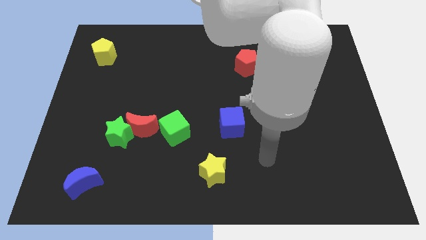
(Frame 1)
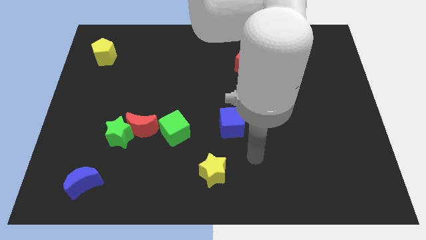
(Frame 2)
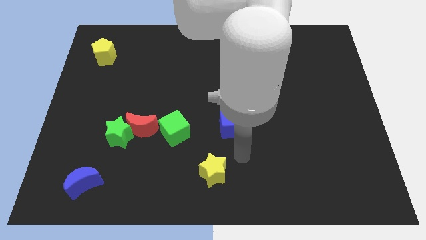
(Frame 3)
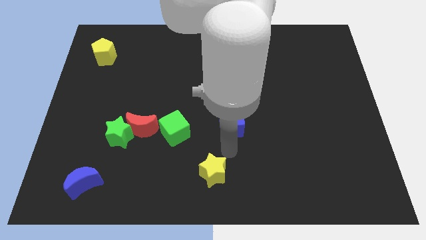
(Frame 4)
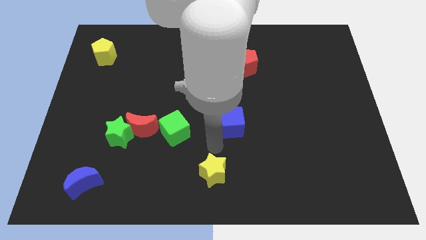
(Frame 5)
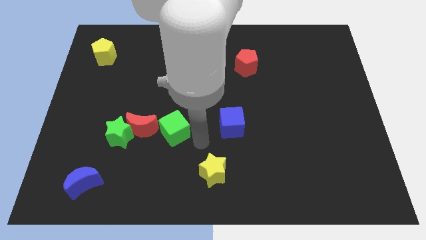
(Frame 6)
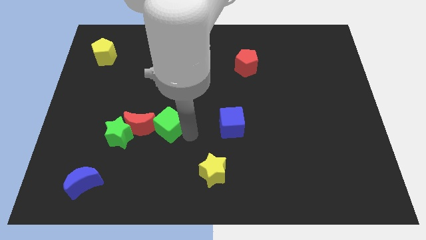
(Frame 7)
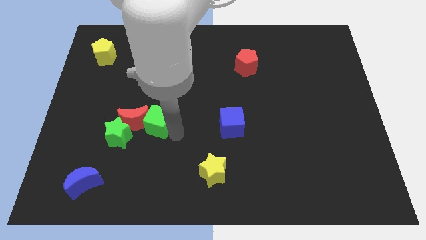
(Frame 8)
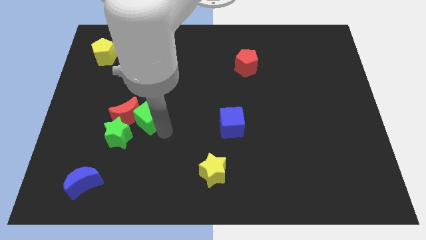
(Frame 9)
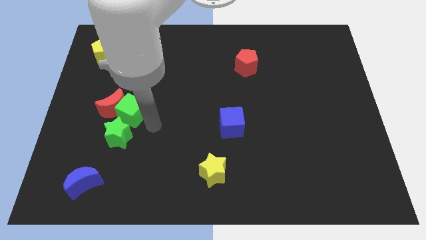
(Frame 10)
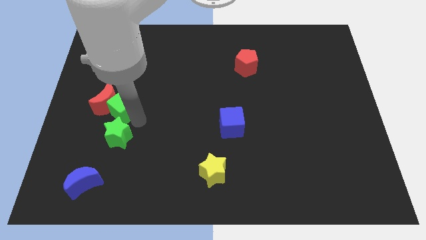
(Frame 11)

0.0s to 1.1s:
move the green star away from the red moon

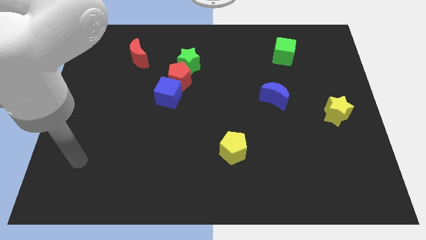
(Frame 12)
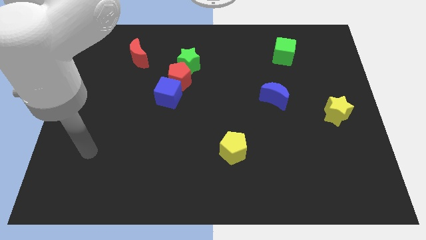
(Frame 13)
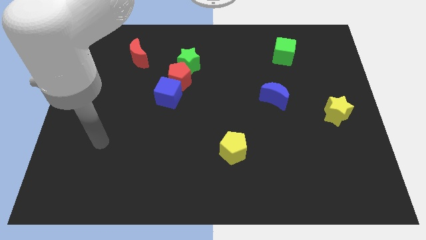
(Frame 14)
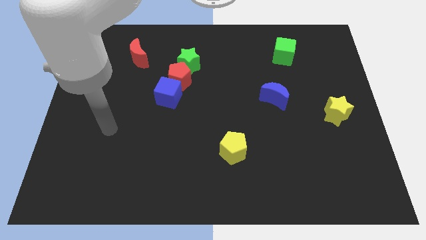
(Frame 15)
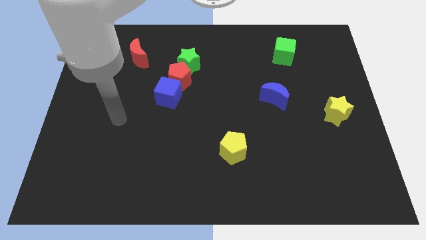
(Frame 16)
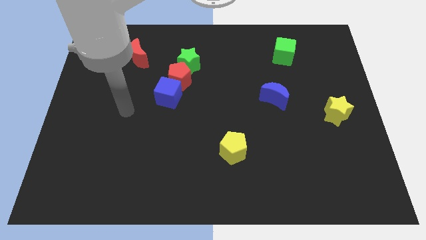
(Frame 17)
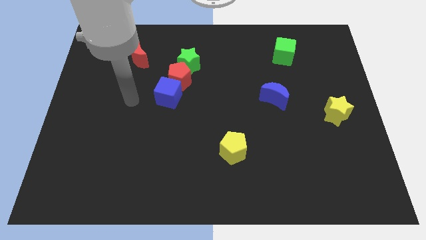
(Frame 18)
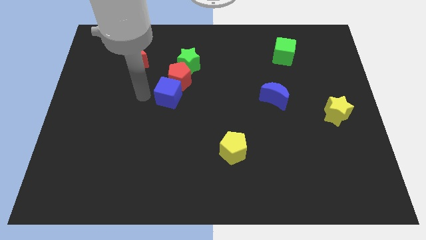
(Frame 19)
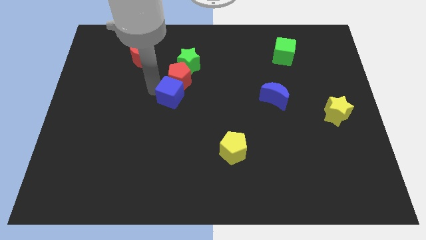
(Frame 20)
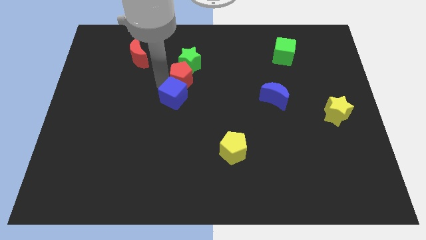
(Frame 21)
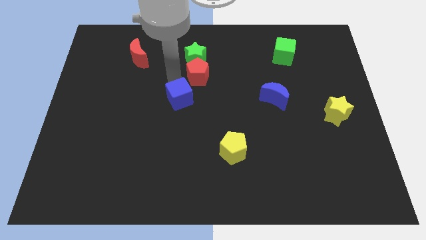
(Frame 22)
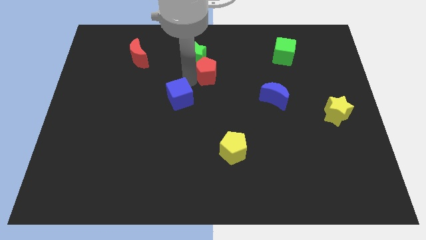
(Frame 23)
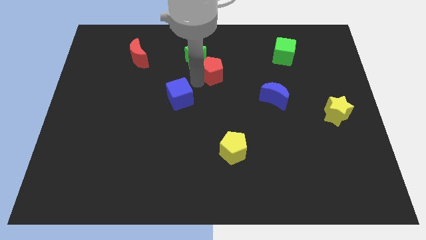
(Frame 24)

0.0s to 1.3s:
separate the blue cube from the red pentagon

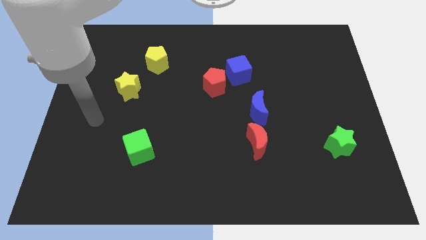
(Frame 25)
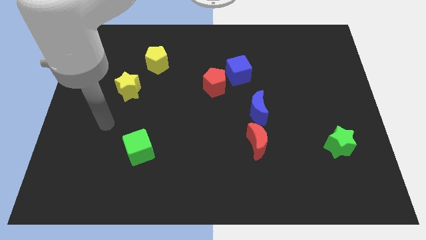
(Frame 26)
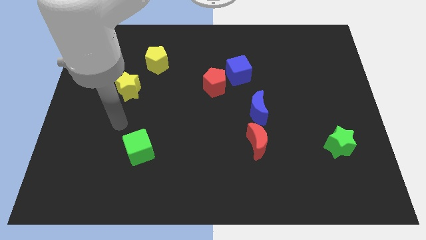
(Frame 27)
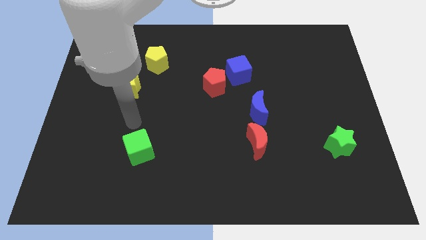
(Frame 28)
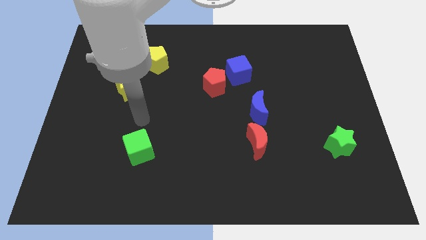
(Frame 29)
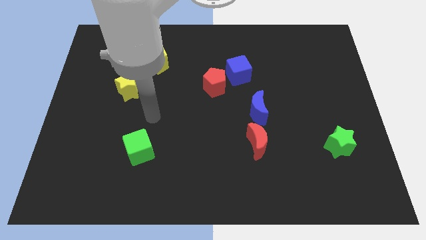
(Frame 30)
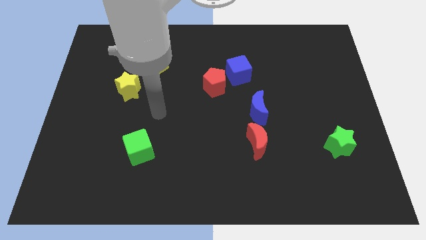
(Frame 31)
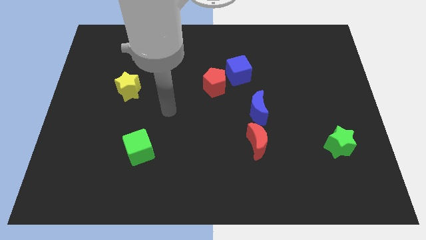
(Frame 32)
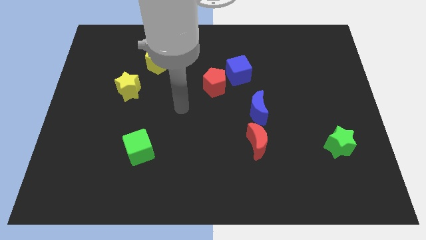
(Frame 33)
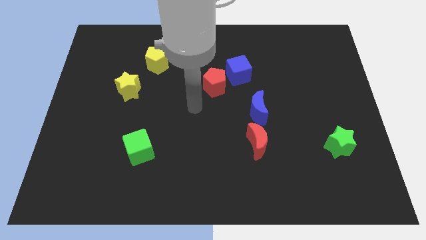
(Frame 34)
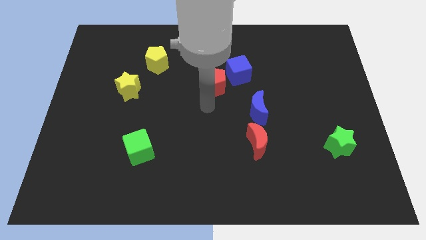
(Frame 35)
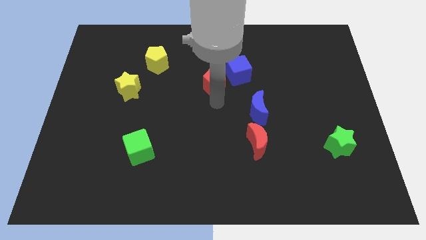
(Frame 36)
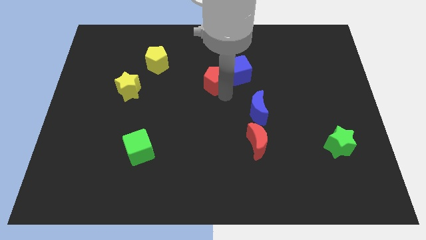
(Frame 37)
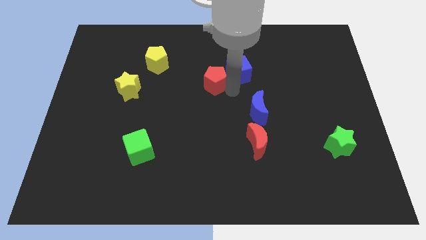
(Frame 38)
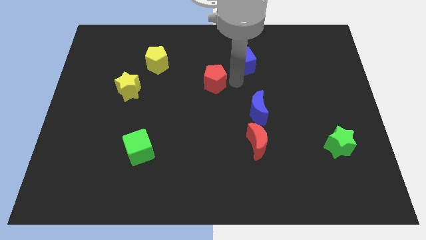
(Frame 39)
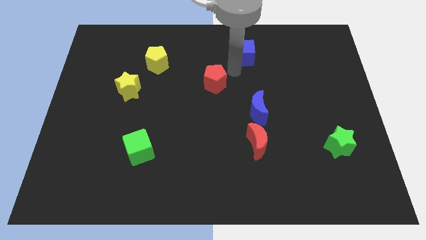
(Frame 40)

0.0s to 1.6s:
move the red pentagon away from the blue cube

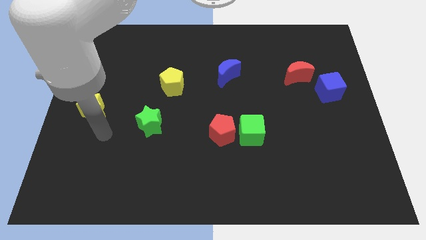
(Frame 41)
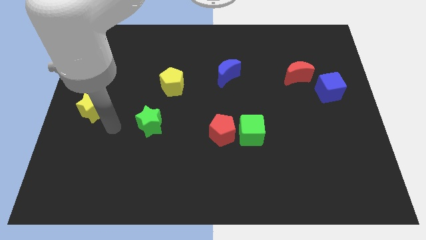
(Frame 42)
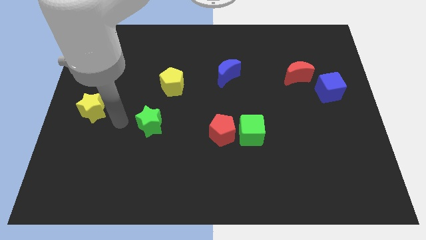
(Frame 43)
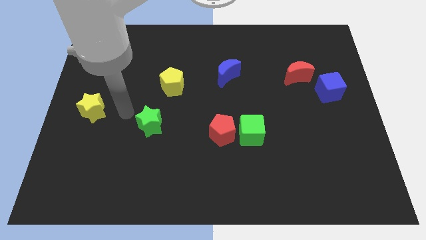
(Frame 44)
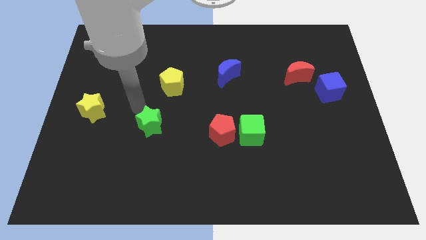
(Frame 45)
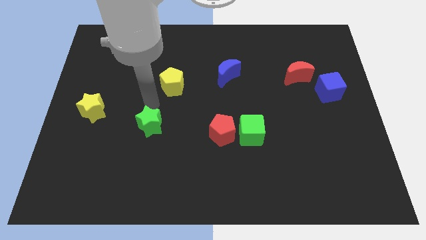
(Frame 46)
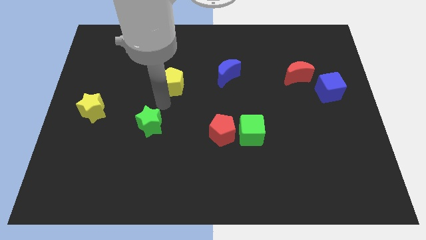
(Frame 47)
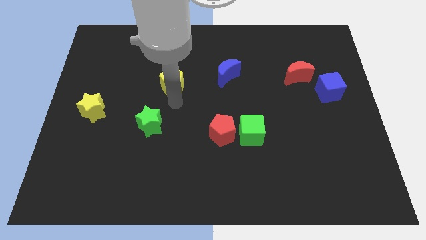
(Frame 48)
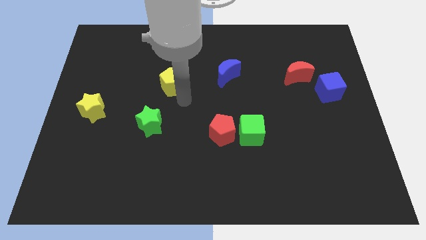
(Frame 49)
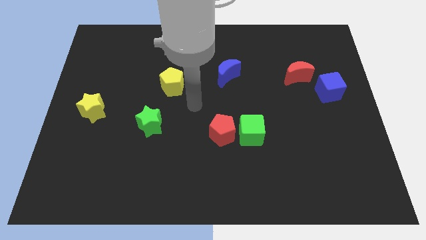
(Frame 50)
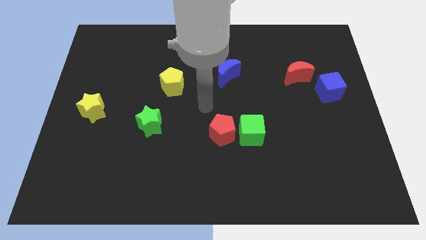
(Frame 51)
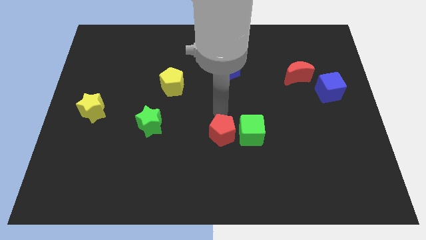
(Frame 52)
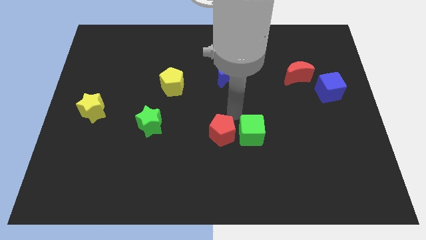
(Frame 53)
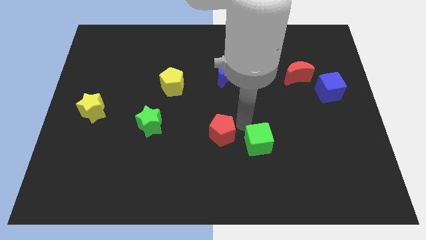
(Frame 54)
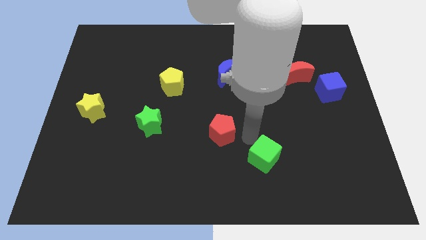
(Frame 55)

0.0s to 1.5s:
move the red pentagon away from the green cube

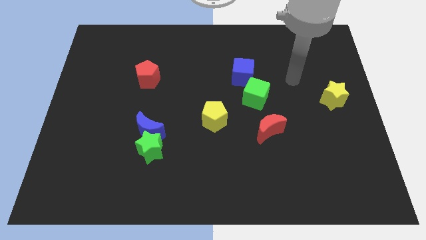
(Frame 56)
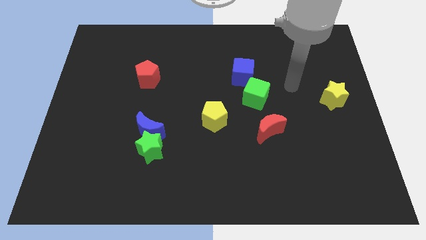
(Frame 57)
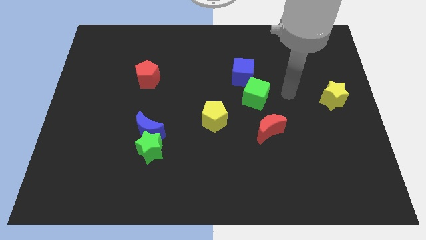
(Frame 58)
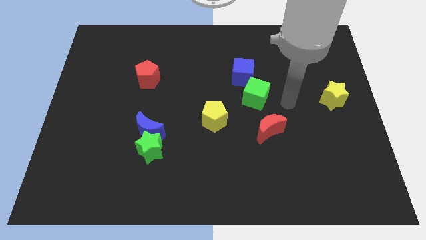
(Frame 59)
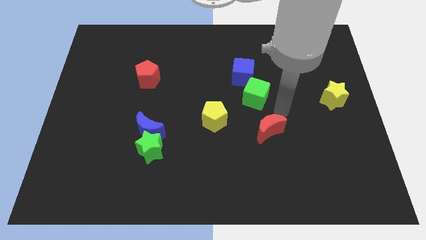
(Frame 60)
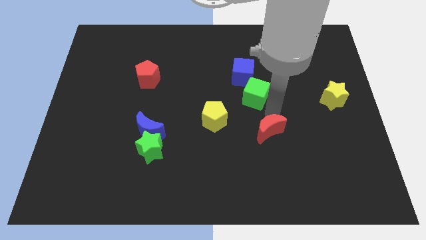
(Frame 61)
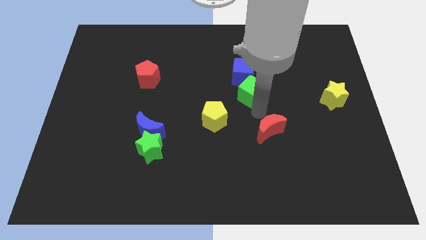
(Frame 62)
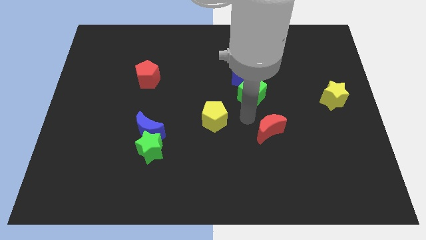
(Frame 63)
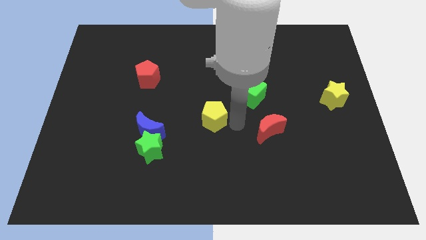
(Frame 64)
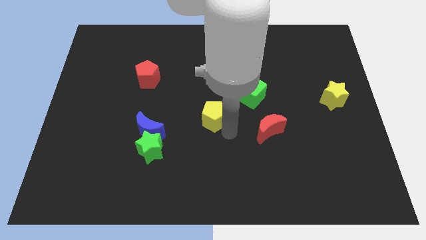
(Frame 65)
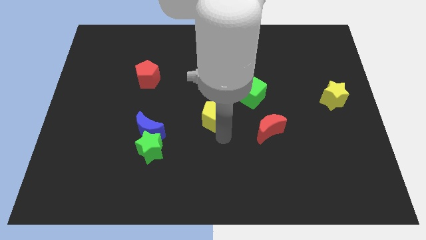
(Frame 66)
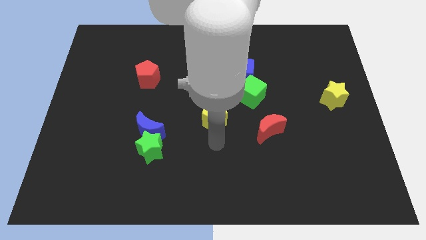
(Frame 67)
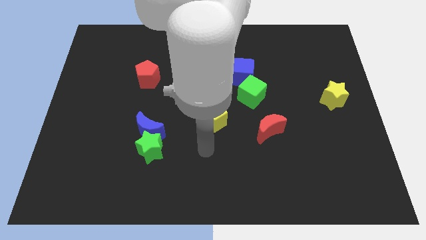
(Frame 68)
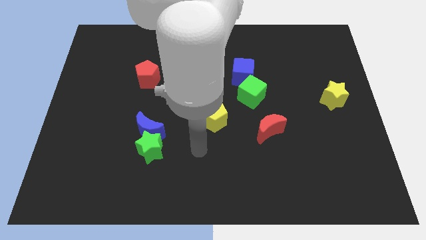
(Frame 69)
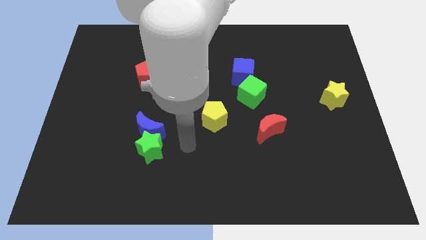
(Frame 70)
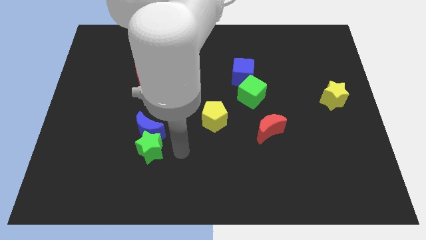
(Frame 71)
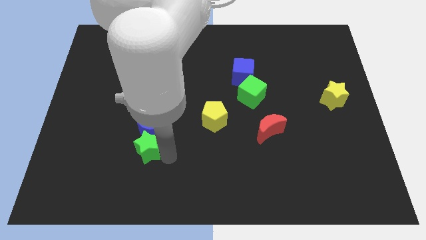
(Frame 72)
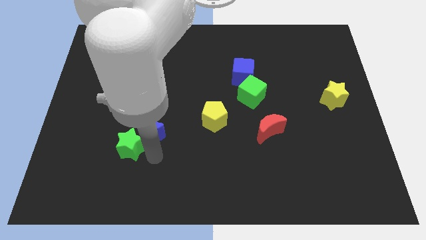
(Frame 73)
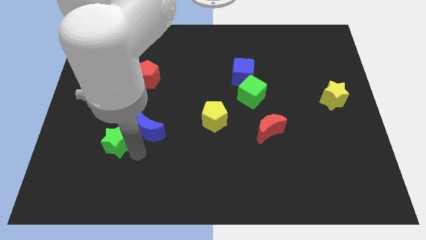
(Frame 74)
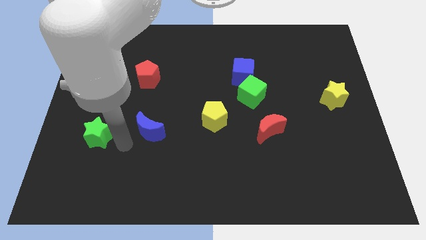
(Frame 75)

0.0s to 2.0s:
move the blue moon away from the green star

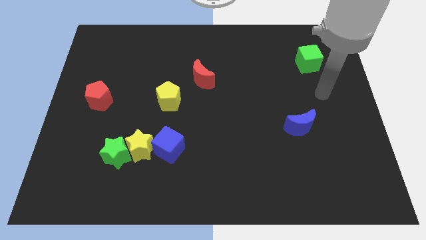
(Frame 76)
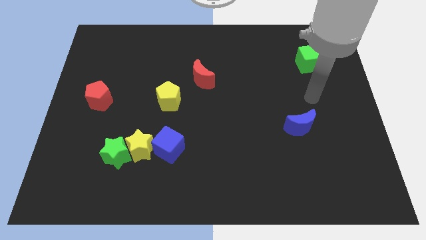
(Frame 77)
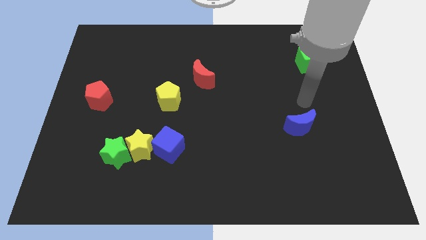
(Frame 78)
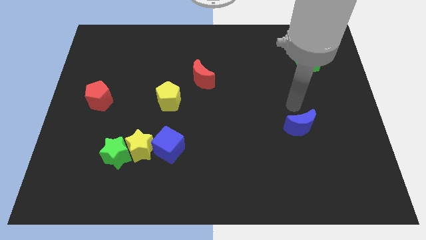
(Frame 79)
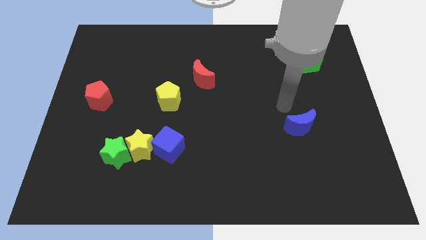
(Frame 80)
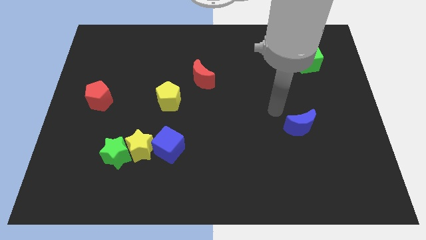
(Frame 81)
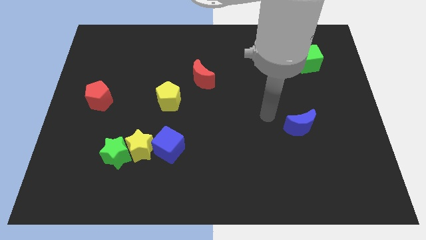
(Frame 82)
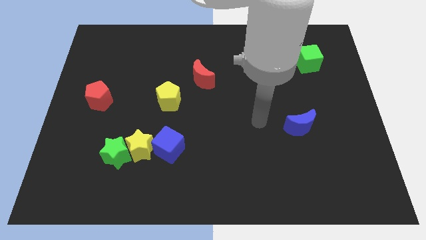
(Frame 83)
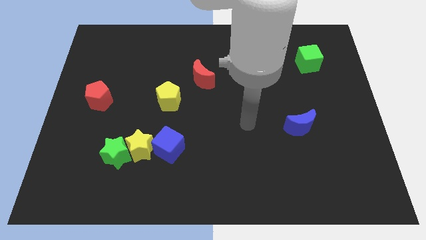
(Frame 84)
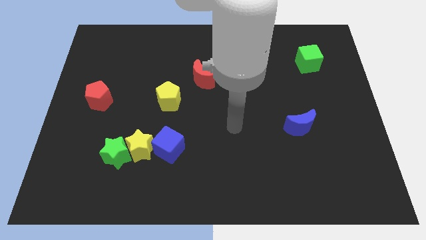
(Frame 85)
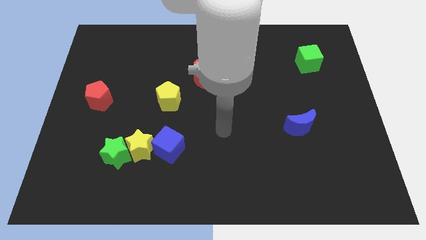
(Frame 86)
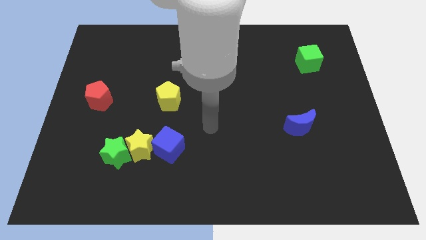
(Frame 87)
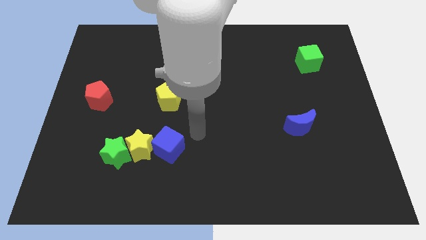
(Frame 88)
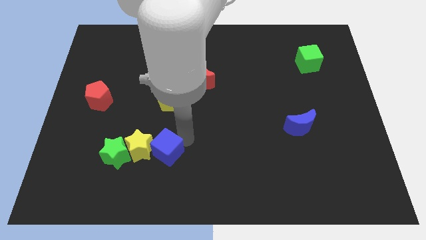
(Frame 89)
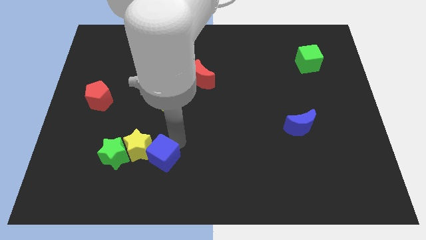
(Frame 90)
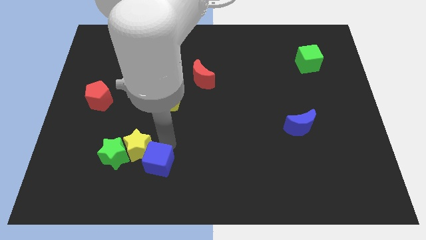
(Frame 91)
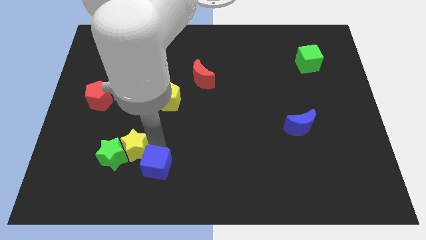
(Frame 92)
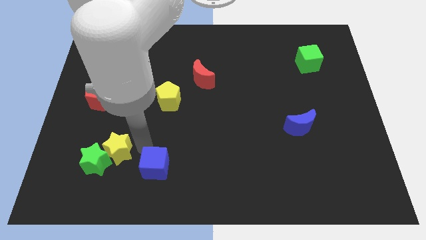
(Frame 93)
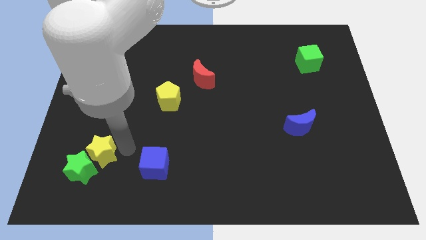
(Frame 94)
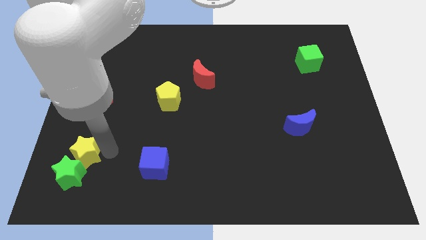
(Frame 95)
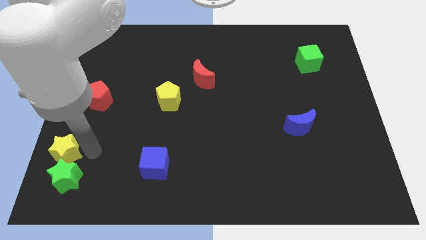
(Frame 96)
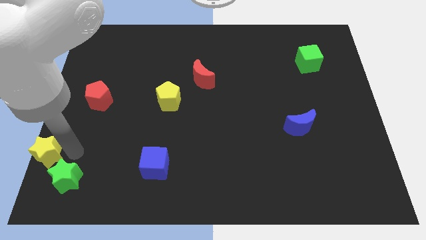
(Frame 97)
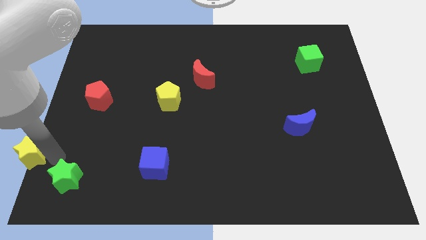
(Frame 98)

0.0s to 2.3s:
pull the green star apart from the yellow star
